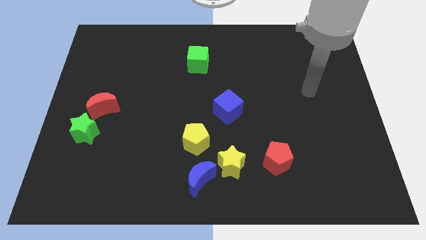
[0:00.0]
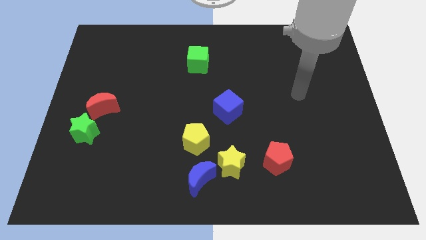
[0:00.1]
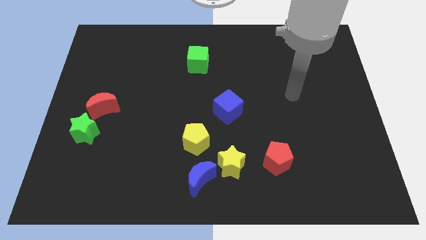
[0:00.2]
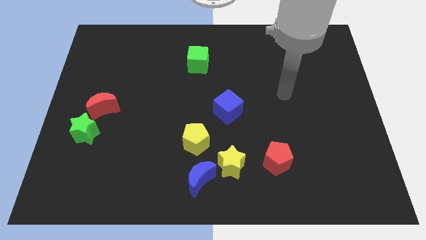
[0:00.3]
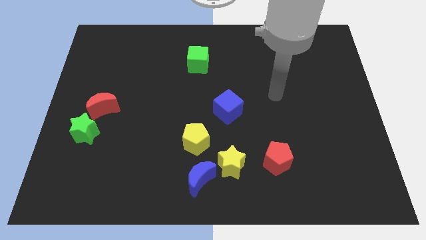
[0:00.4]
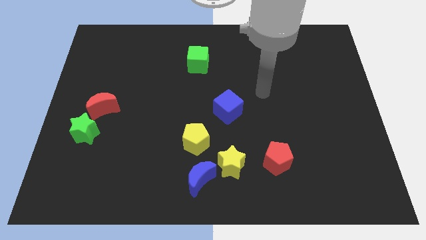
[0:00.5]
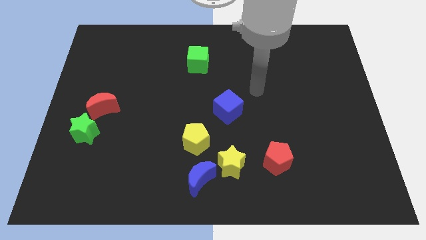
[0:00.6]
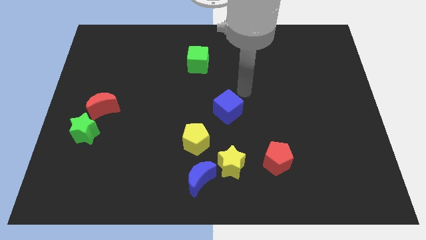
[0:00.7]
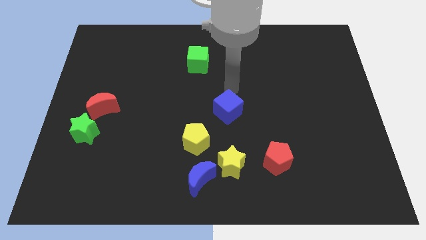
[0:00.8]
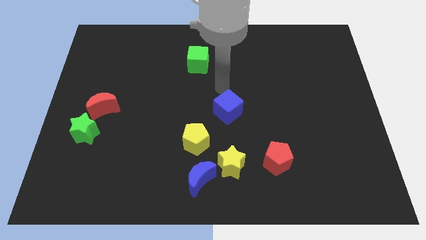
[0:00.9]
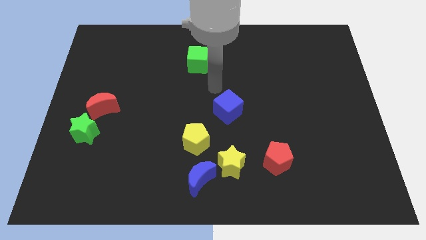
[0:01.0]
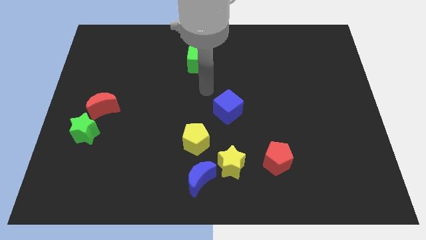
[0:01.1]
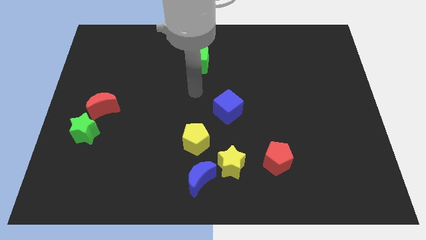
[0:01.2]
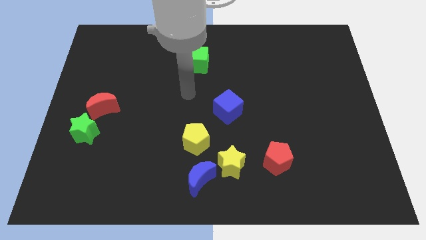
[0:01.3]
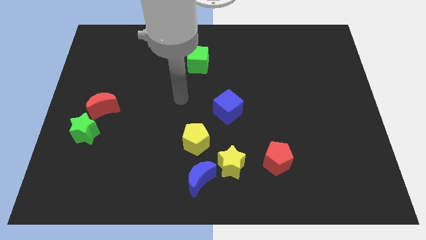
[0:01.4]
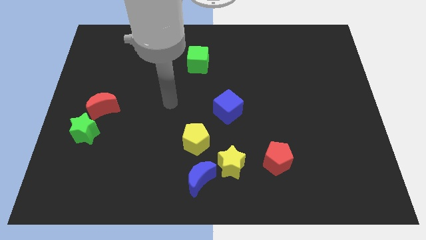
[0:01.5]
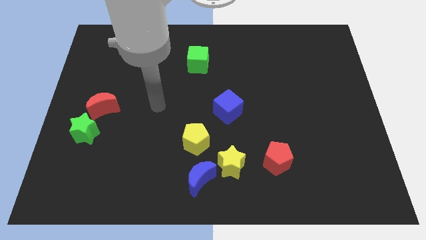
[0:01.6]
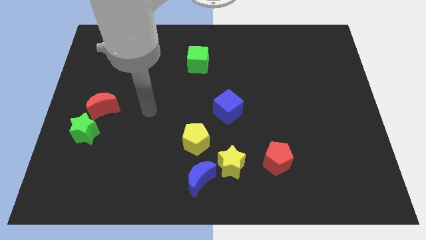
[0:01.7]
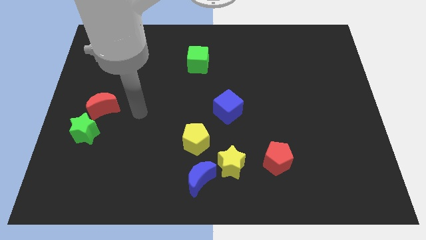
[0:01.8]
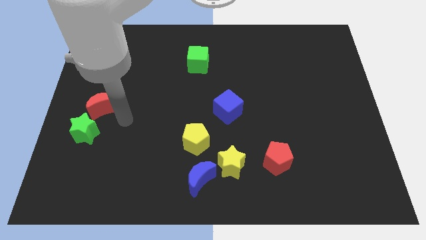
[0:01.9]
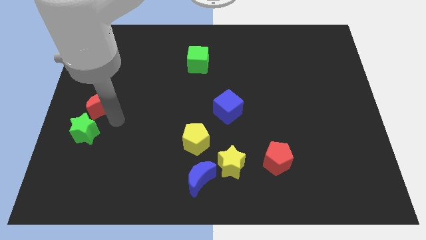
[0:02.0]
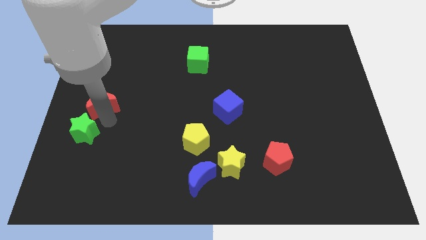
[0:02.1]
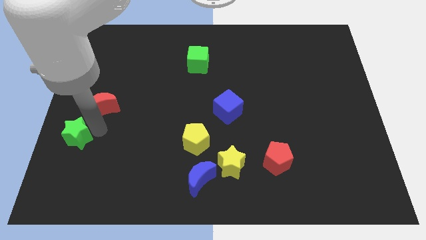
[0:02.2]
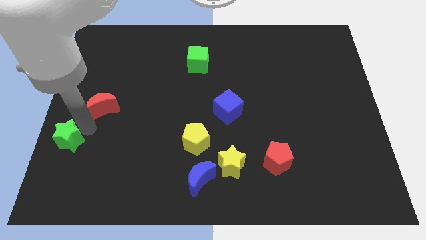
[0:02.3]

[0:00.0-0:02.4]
move the red moon away from the green star

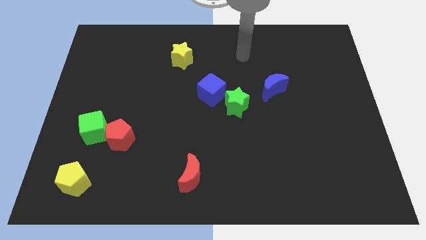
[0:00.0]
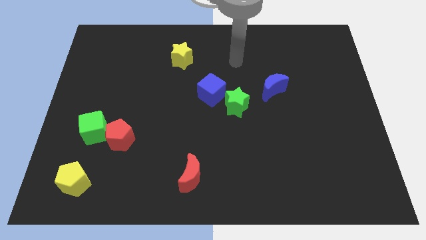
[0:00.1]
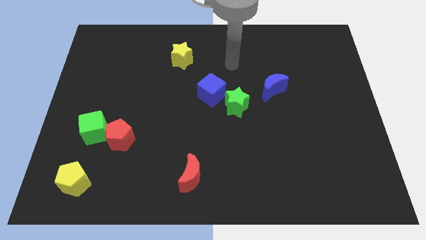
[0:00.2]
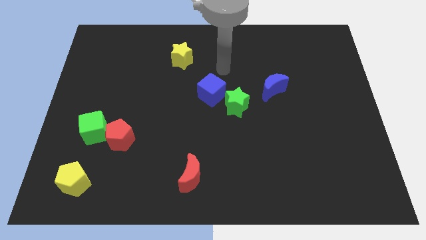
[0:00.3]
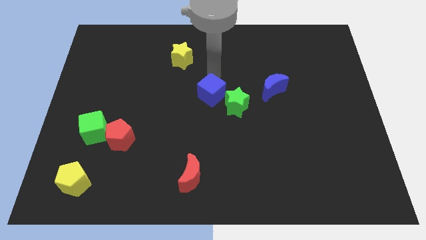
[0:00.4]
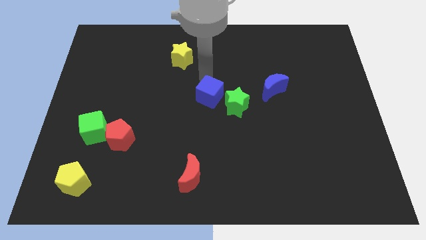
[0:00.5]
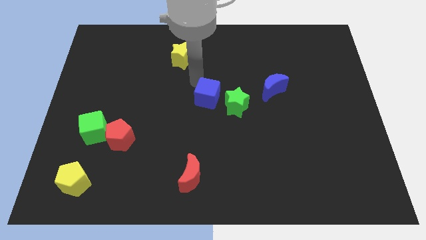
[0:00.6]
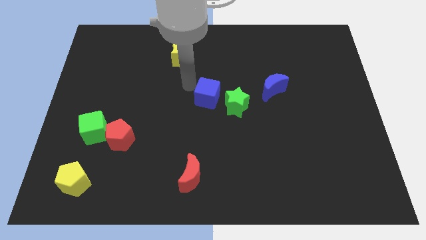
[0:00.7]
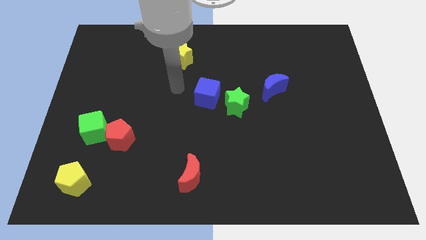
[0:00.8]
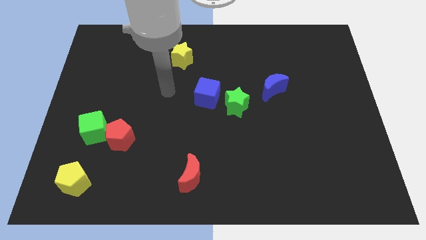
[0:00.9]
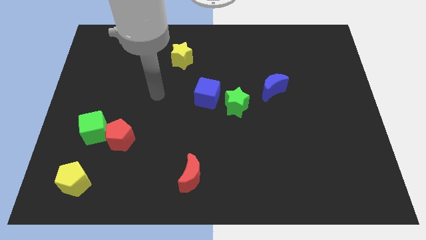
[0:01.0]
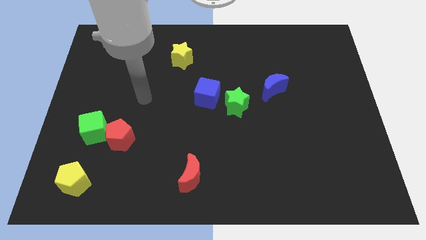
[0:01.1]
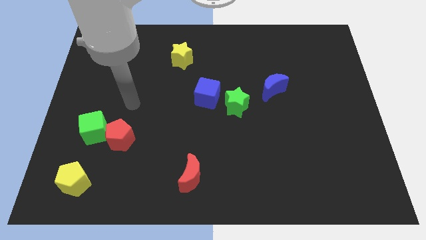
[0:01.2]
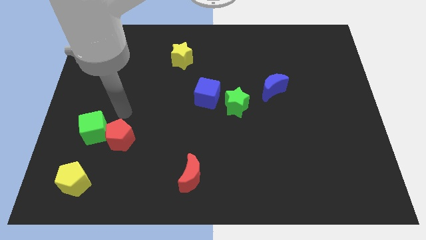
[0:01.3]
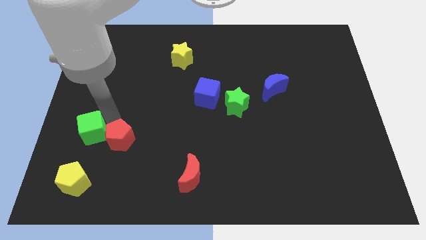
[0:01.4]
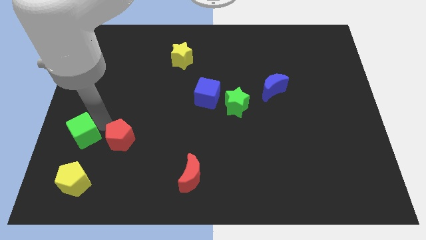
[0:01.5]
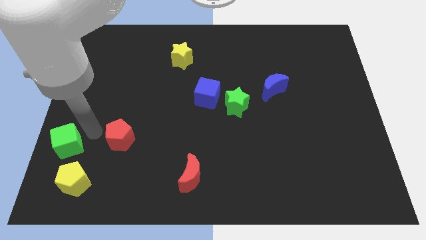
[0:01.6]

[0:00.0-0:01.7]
separate the red pentagon from the green cube

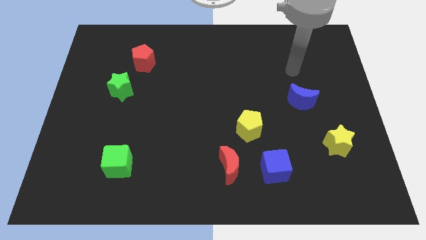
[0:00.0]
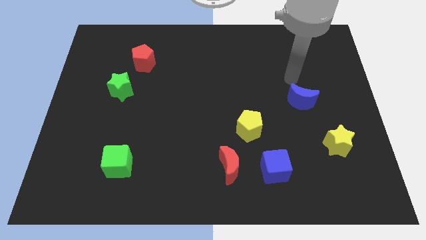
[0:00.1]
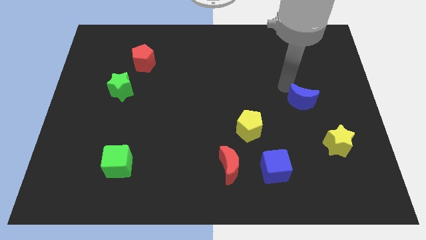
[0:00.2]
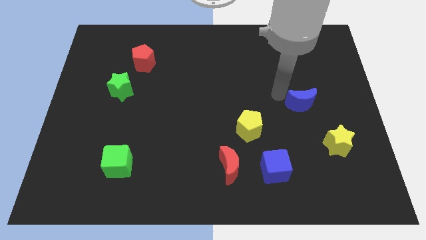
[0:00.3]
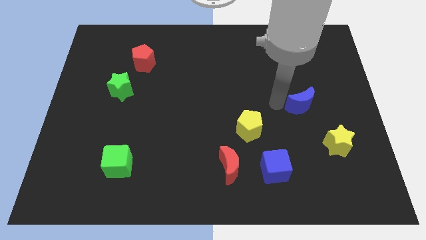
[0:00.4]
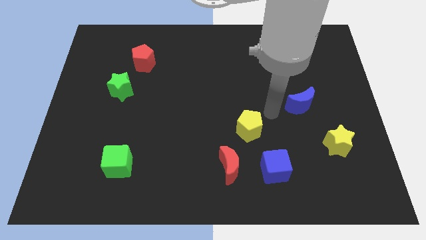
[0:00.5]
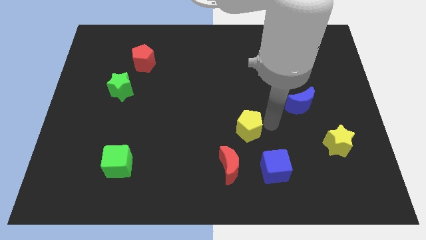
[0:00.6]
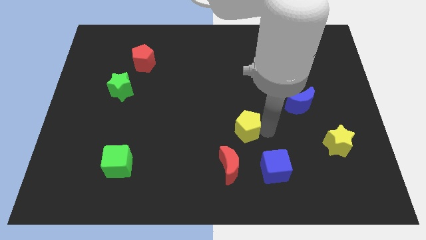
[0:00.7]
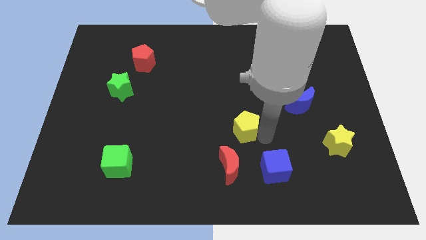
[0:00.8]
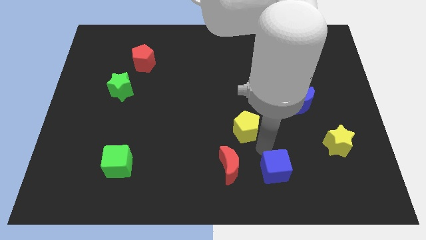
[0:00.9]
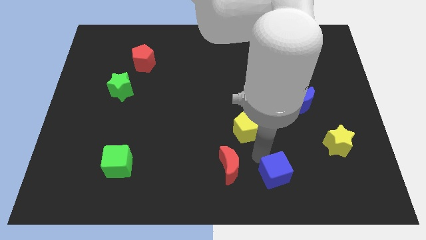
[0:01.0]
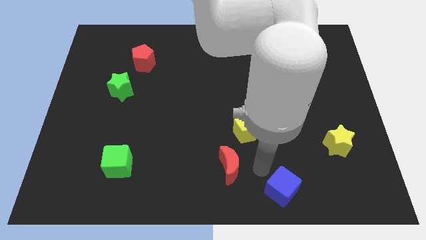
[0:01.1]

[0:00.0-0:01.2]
move the red moon away from the blue cube

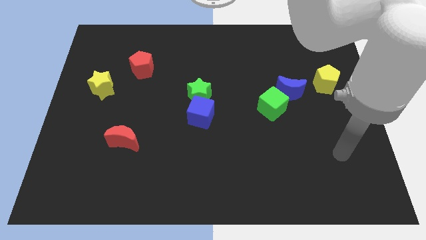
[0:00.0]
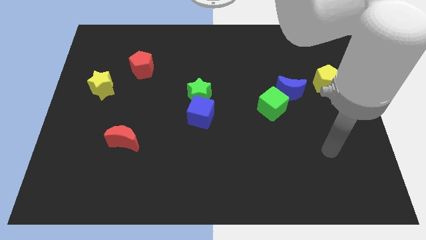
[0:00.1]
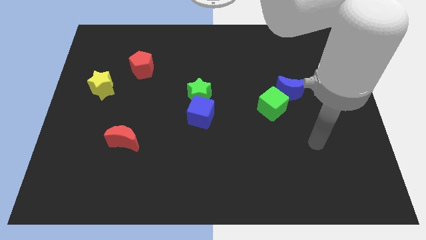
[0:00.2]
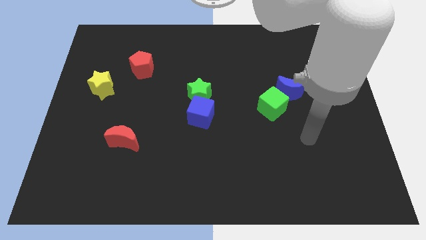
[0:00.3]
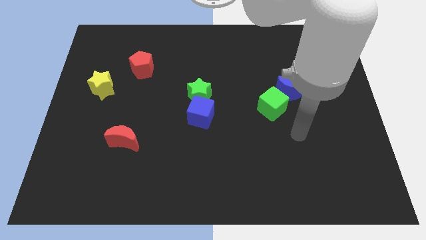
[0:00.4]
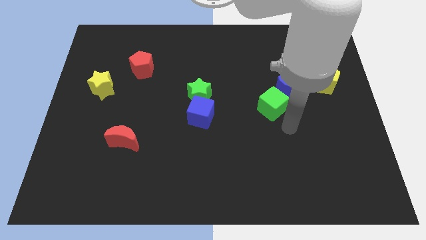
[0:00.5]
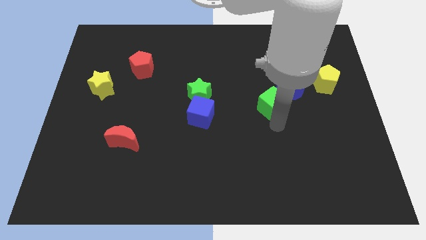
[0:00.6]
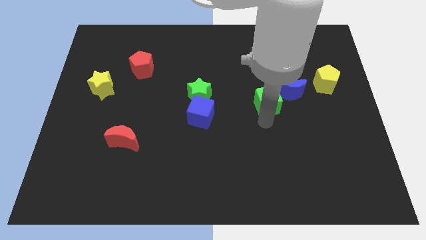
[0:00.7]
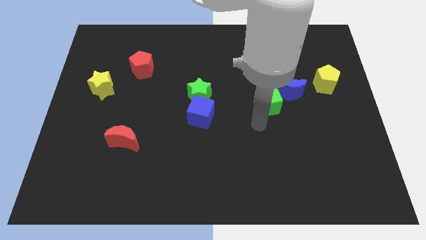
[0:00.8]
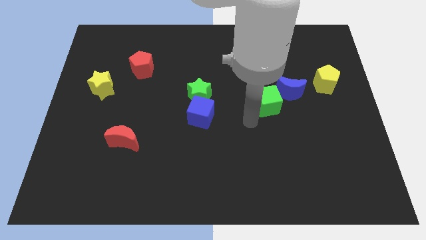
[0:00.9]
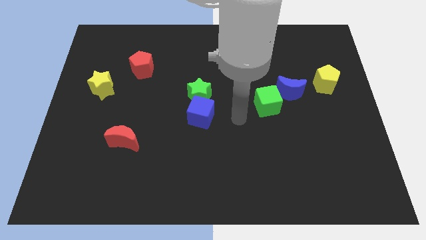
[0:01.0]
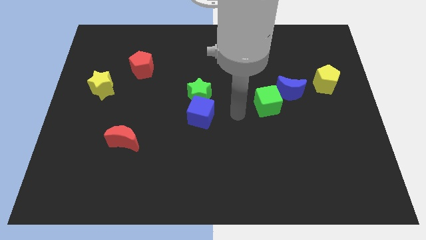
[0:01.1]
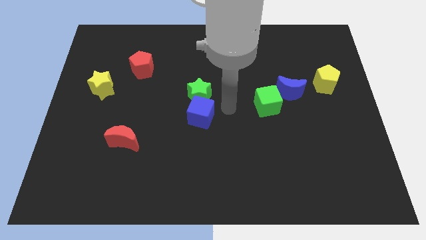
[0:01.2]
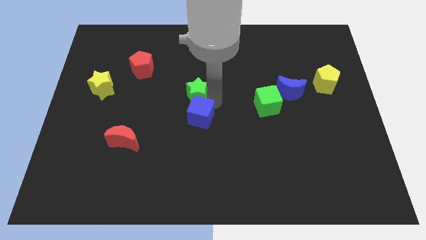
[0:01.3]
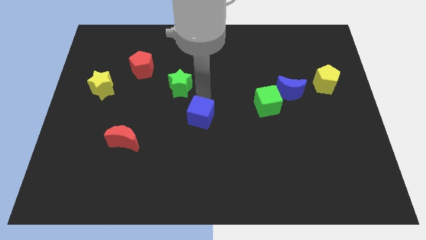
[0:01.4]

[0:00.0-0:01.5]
separate the blue cube from the green star

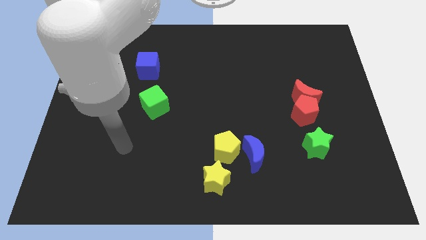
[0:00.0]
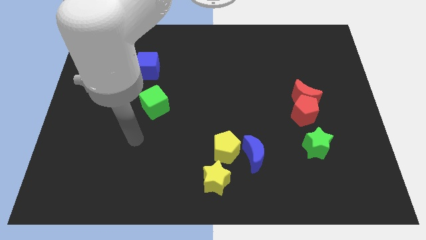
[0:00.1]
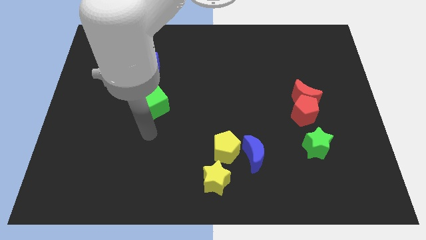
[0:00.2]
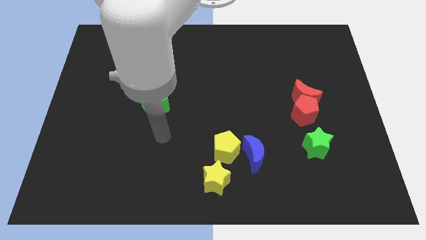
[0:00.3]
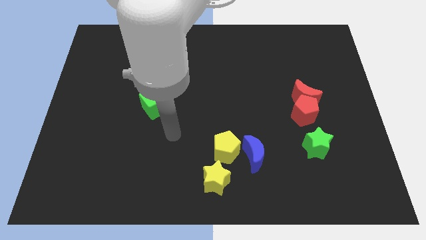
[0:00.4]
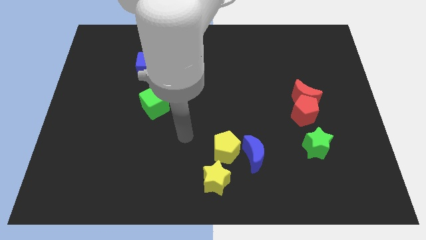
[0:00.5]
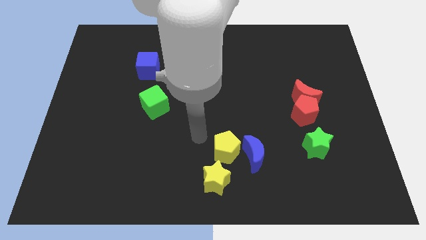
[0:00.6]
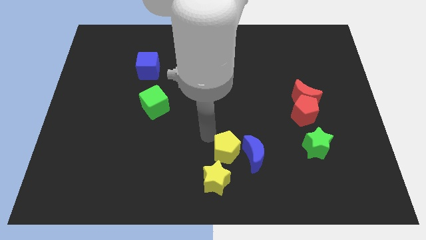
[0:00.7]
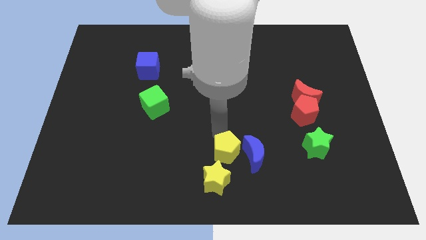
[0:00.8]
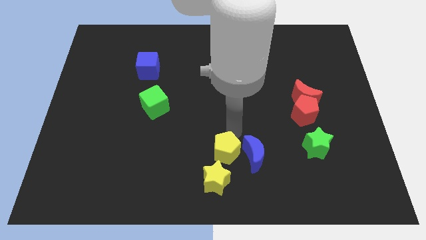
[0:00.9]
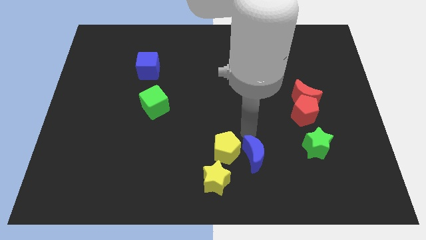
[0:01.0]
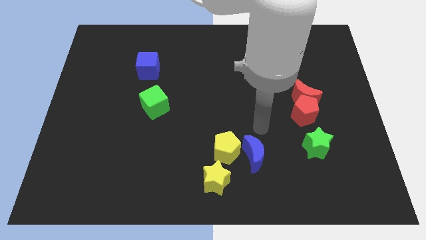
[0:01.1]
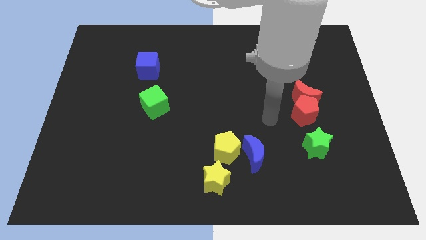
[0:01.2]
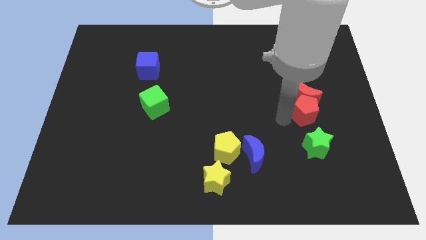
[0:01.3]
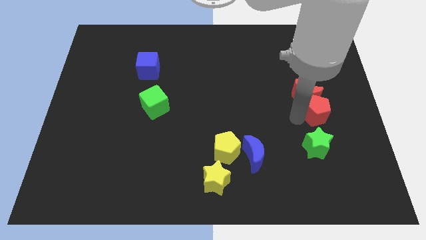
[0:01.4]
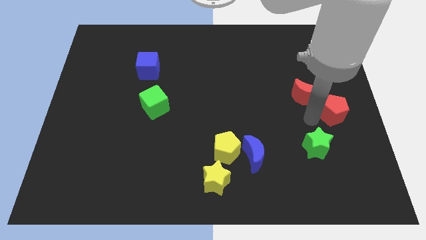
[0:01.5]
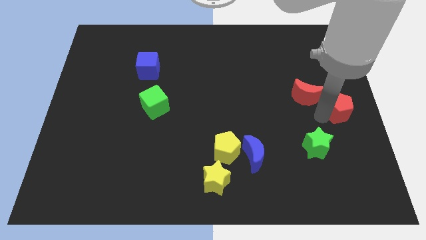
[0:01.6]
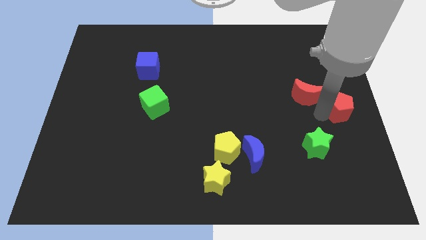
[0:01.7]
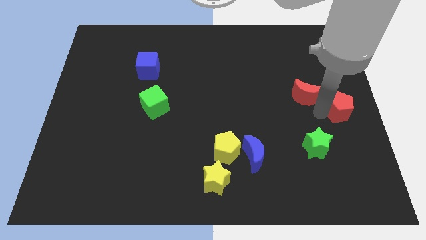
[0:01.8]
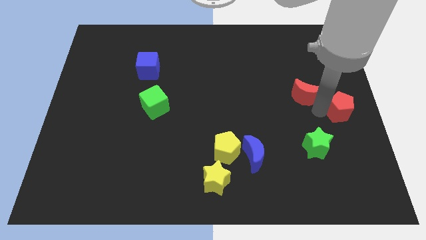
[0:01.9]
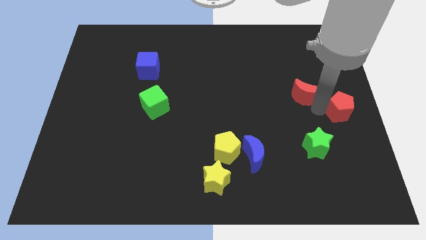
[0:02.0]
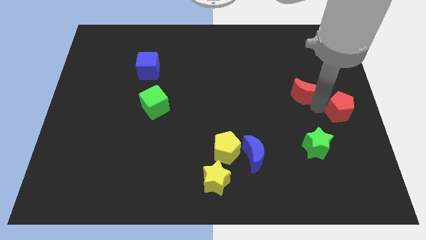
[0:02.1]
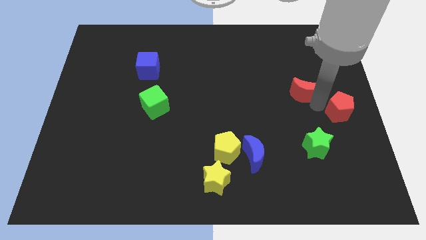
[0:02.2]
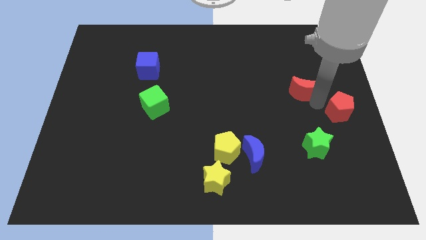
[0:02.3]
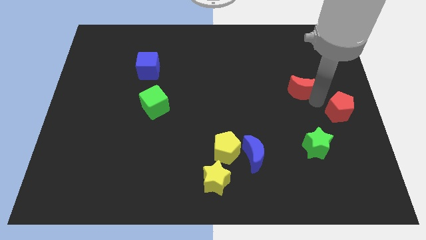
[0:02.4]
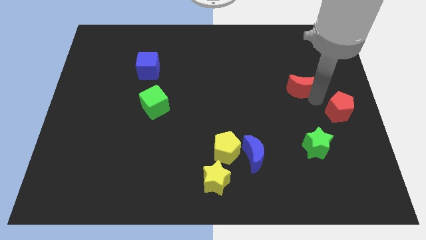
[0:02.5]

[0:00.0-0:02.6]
pull the red moon apart from the red pentagon
